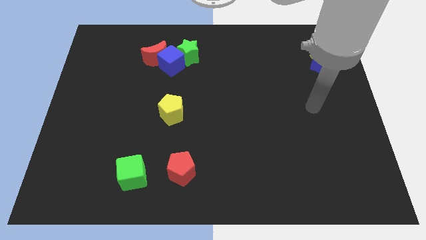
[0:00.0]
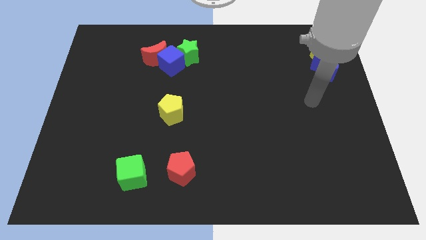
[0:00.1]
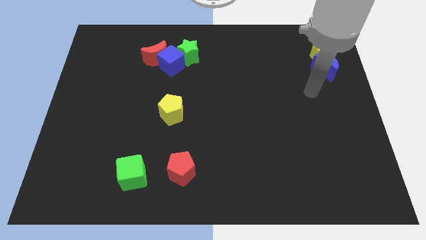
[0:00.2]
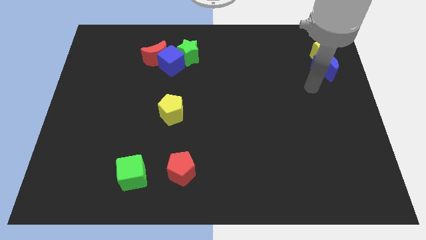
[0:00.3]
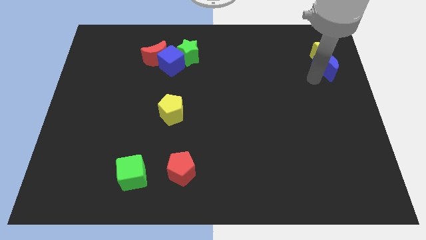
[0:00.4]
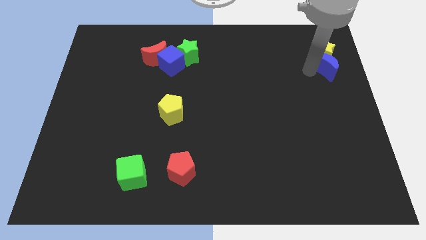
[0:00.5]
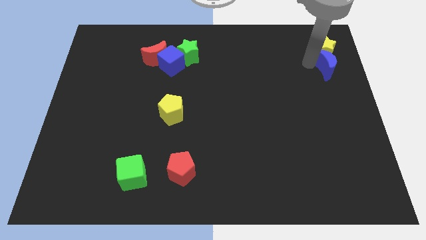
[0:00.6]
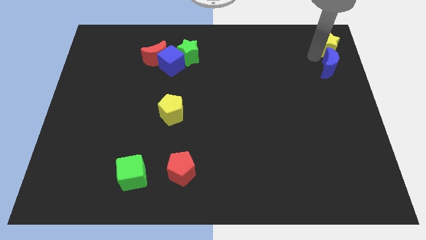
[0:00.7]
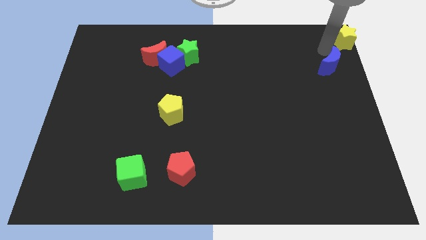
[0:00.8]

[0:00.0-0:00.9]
pull the blue moon apart from the yellow star

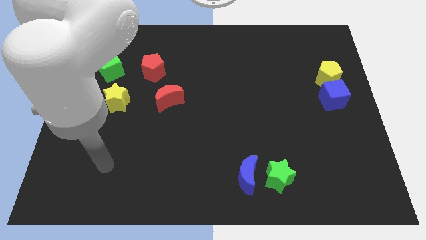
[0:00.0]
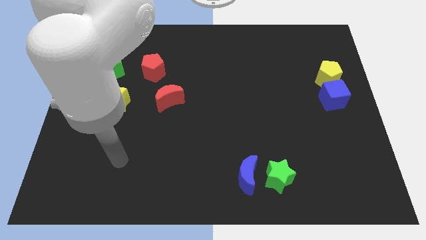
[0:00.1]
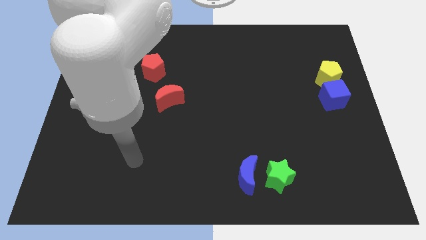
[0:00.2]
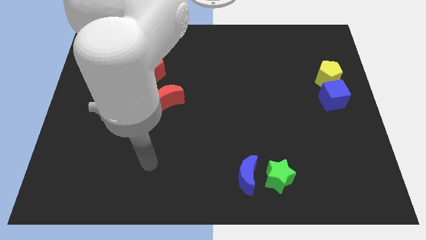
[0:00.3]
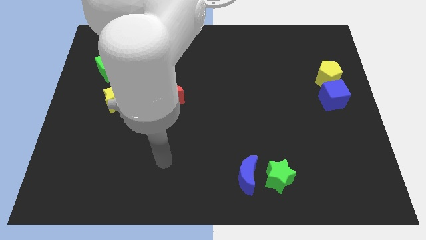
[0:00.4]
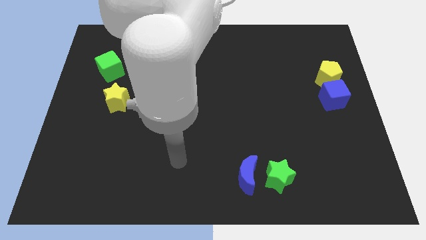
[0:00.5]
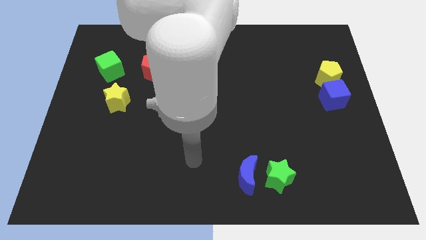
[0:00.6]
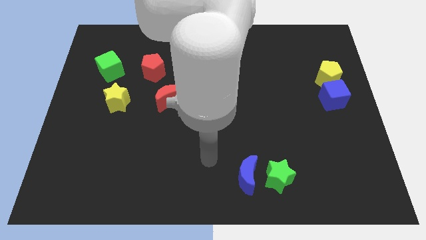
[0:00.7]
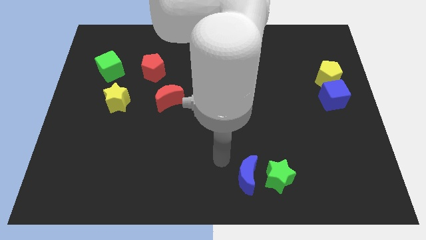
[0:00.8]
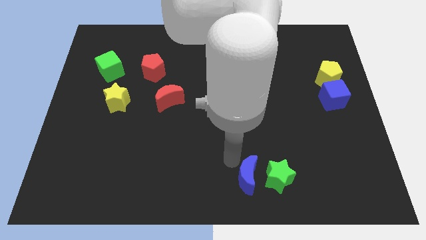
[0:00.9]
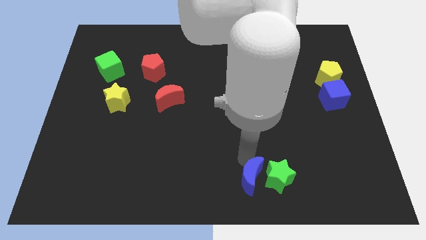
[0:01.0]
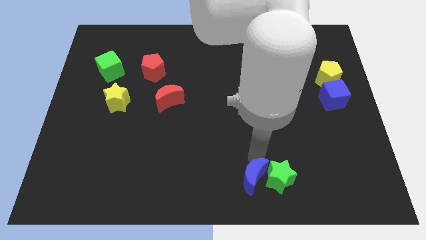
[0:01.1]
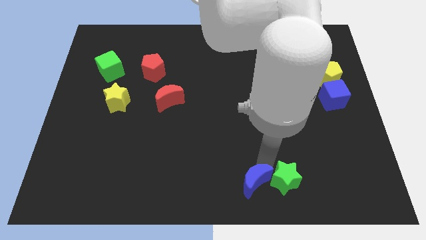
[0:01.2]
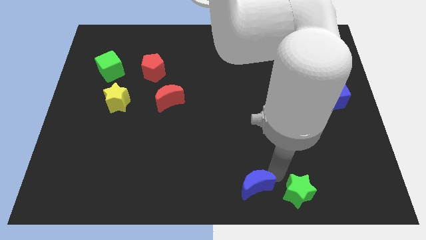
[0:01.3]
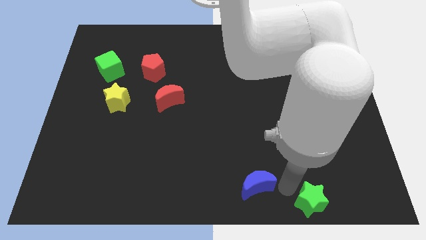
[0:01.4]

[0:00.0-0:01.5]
separate the blue moon from the green star

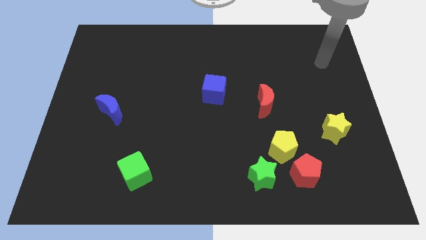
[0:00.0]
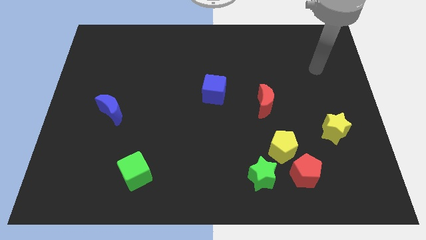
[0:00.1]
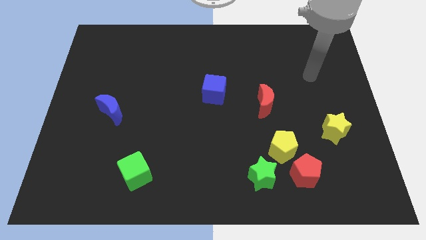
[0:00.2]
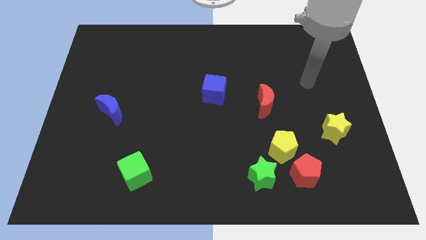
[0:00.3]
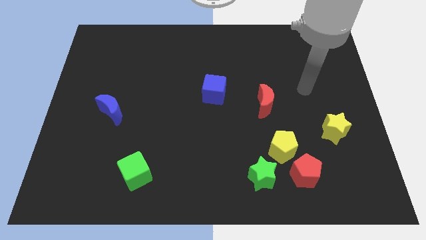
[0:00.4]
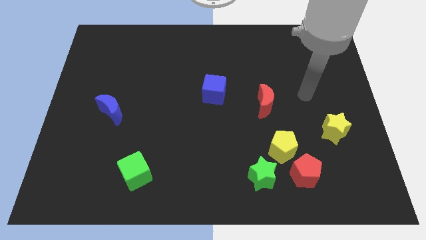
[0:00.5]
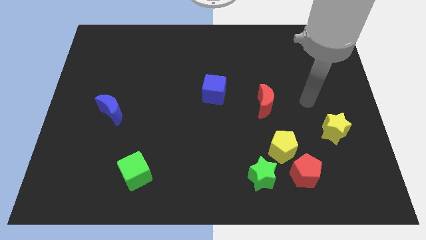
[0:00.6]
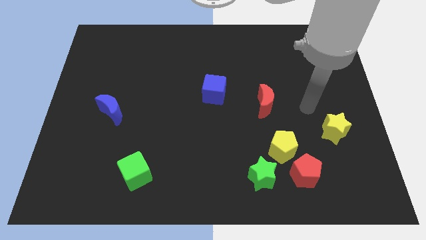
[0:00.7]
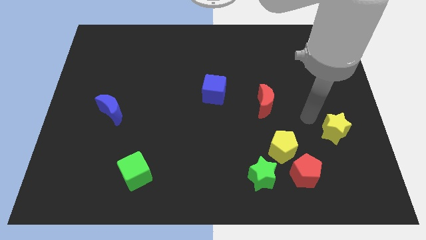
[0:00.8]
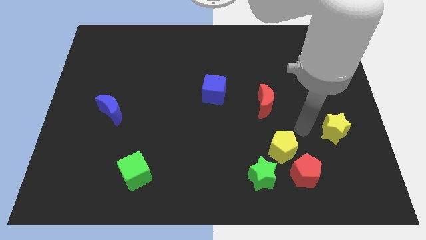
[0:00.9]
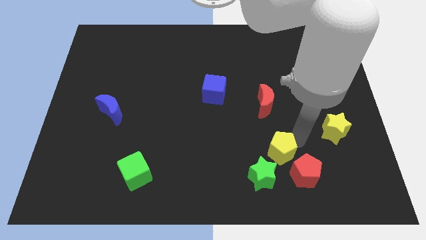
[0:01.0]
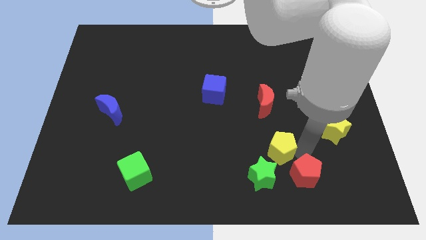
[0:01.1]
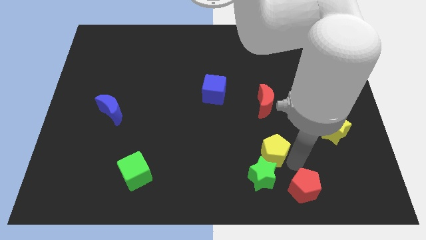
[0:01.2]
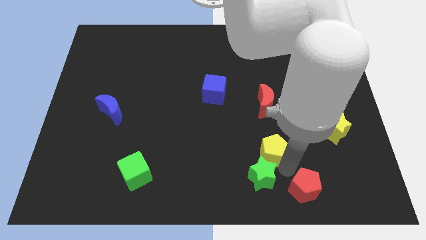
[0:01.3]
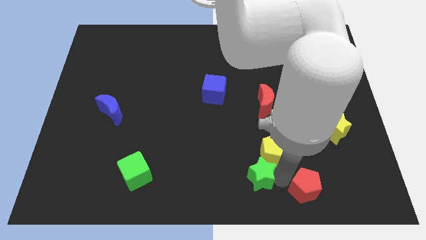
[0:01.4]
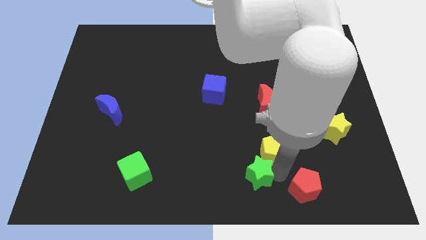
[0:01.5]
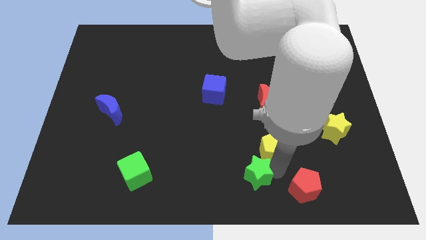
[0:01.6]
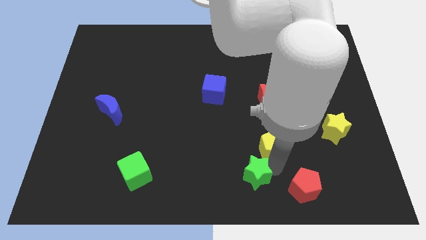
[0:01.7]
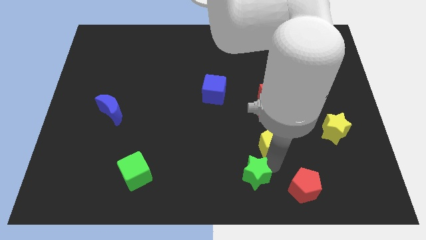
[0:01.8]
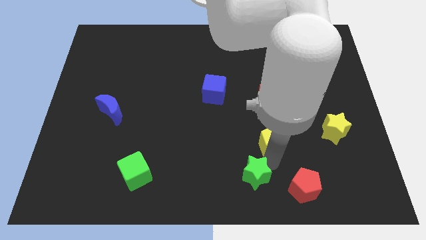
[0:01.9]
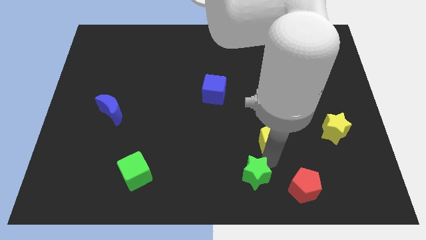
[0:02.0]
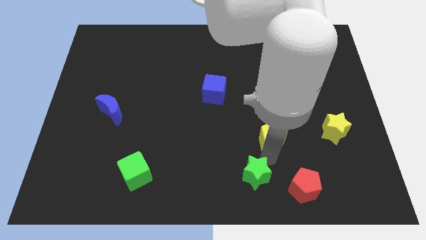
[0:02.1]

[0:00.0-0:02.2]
move the yellow pentagon away from the red pentagon and green star

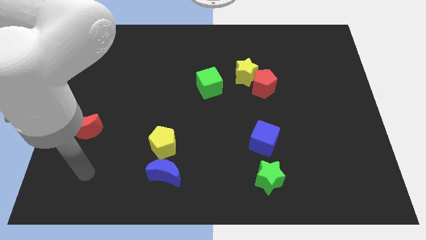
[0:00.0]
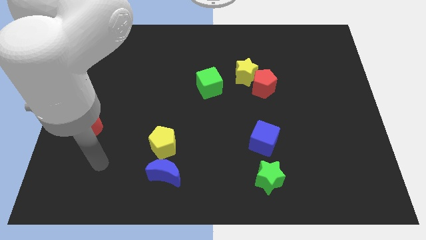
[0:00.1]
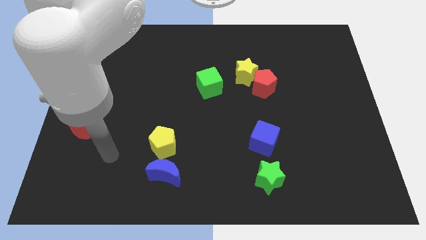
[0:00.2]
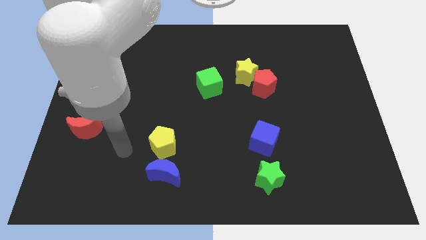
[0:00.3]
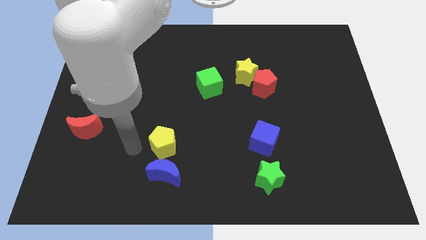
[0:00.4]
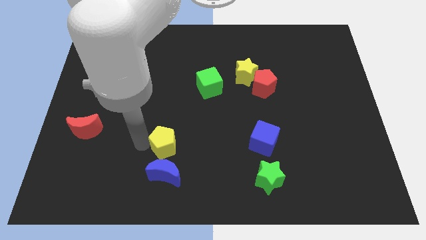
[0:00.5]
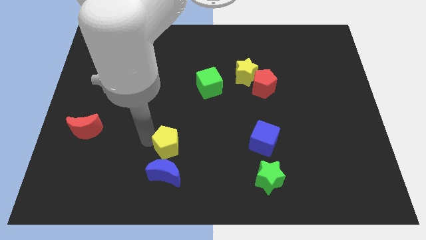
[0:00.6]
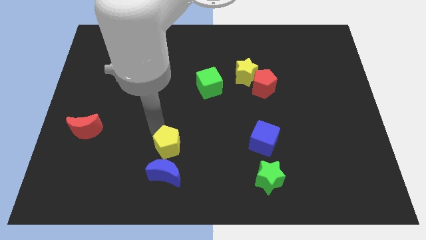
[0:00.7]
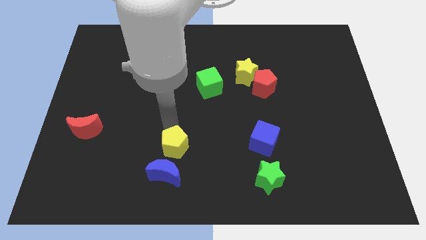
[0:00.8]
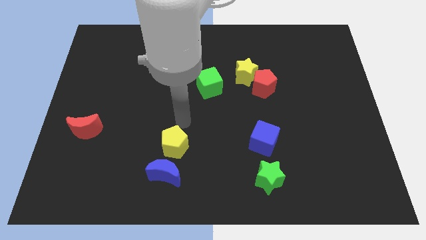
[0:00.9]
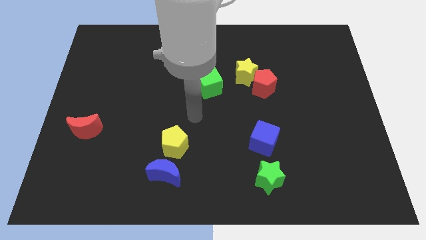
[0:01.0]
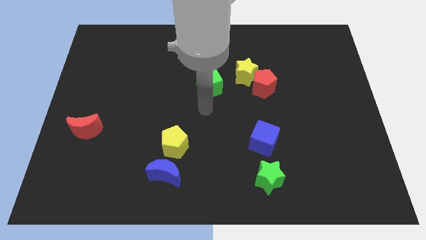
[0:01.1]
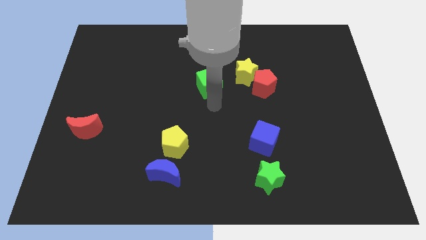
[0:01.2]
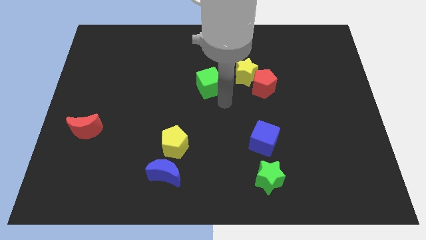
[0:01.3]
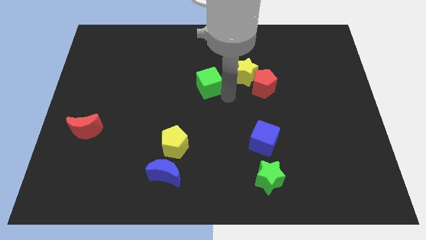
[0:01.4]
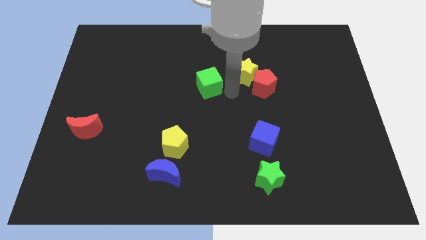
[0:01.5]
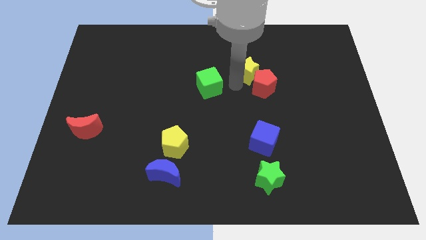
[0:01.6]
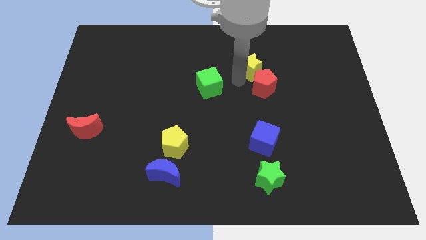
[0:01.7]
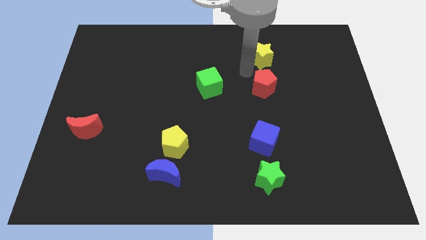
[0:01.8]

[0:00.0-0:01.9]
pull the red pentagon apart from the yellow star

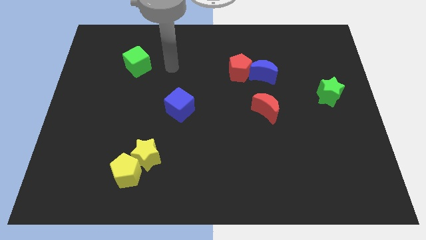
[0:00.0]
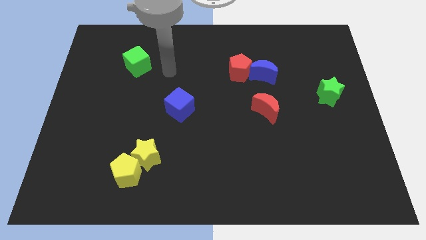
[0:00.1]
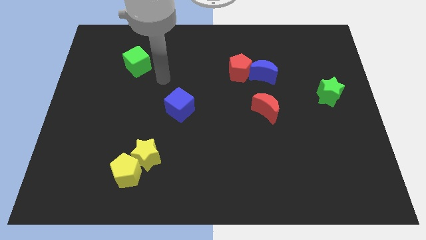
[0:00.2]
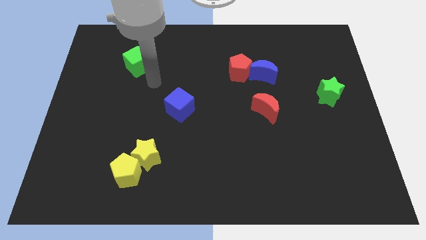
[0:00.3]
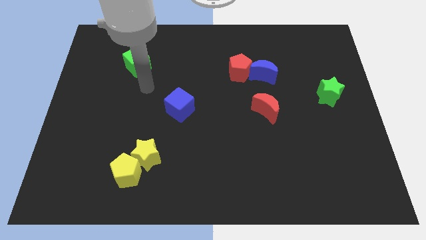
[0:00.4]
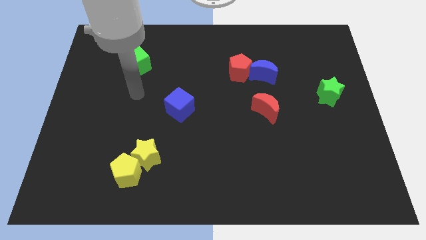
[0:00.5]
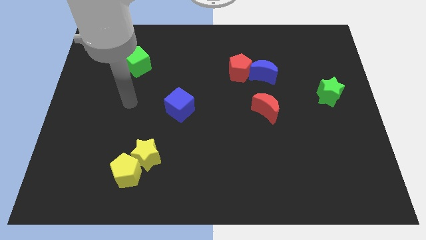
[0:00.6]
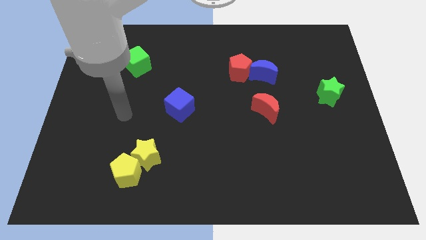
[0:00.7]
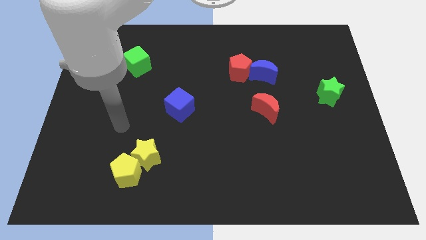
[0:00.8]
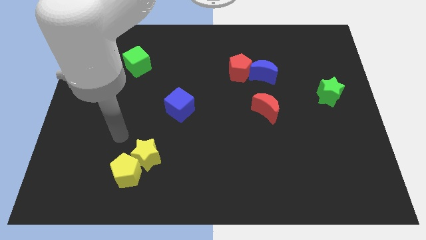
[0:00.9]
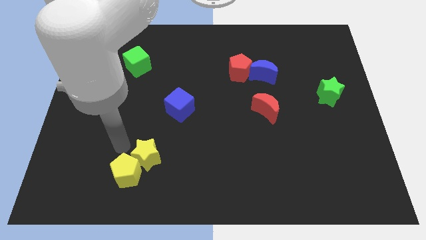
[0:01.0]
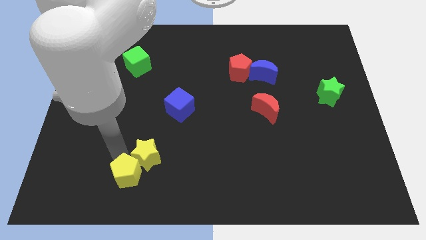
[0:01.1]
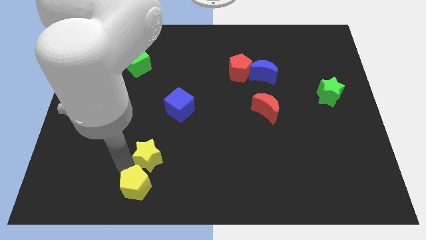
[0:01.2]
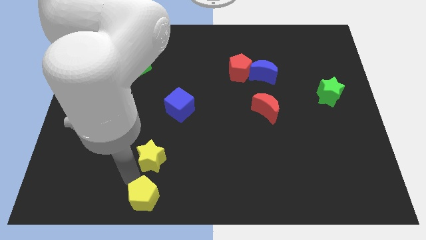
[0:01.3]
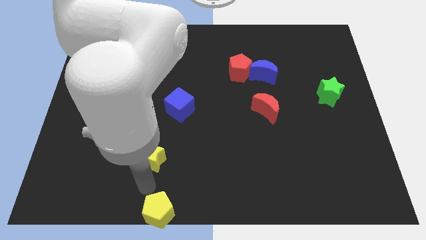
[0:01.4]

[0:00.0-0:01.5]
pull the yellow star apart from the yellow pentagon

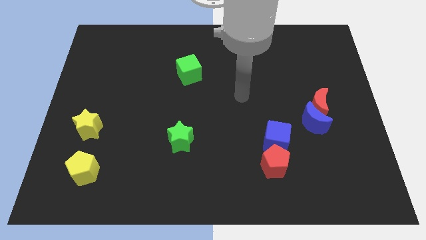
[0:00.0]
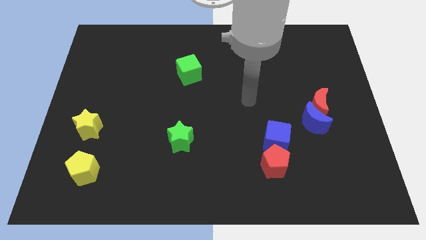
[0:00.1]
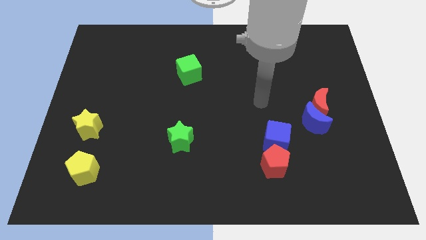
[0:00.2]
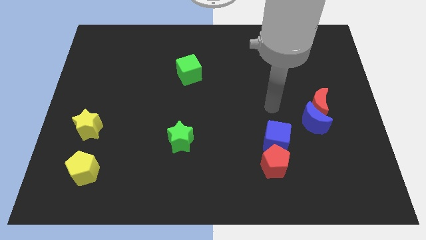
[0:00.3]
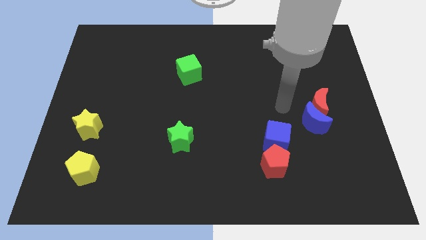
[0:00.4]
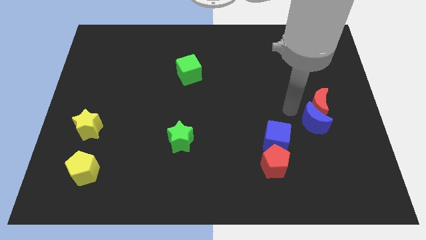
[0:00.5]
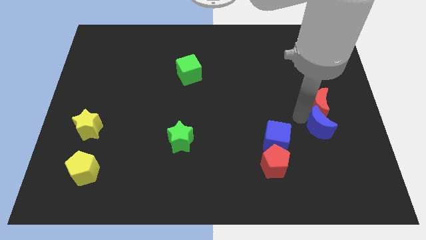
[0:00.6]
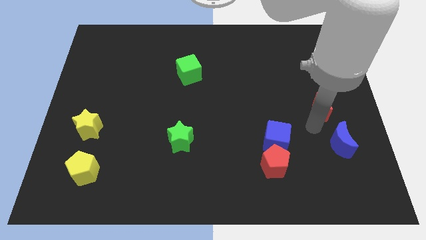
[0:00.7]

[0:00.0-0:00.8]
pull the red moon apart from the blue moon

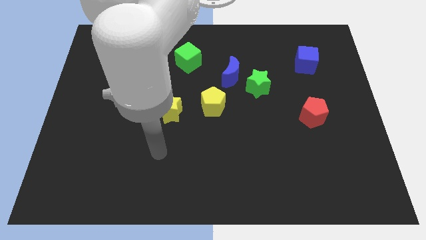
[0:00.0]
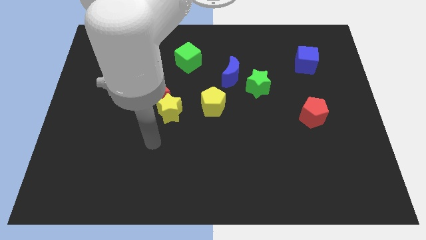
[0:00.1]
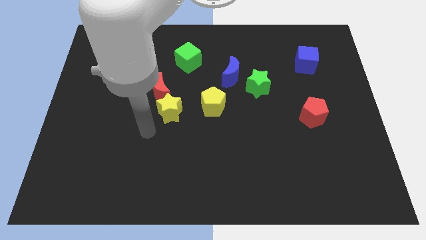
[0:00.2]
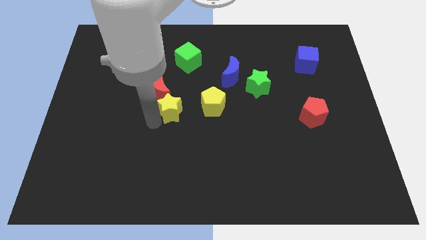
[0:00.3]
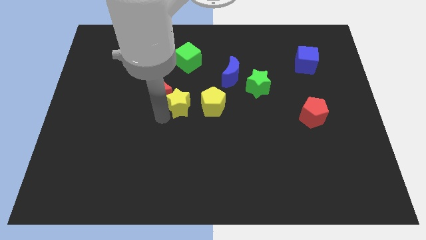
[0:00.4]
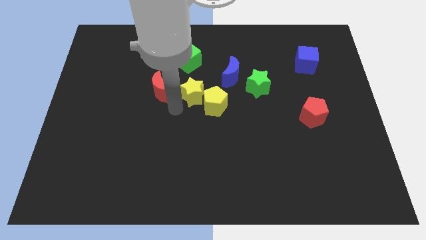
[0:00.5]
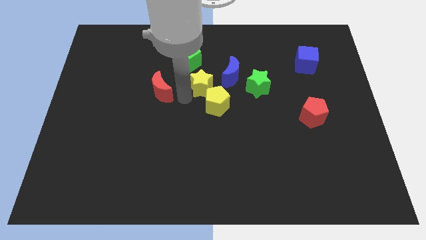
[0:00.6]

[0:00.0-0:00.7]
pull the red moon apart from the yellow star
